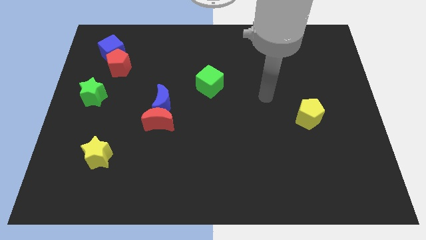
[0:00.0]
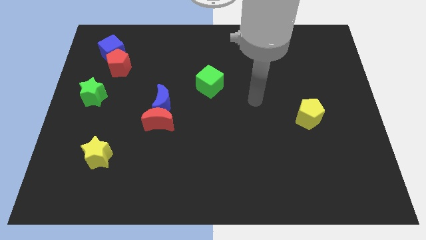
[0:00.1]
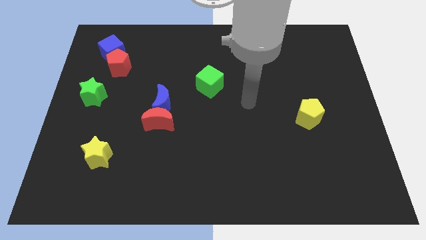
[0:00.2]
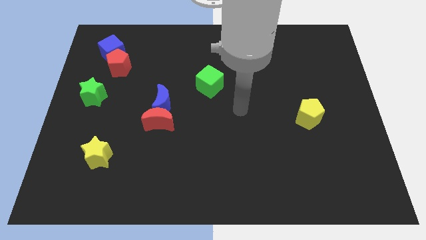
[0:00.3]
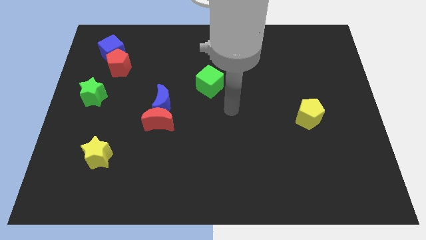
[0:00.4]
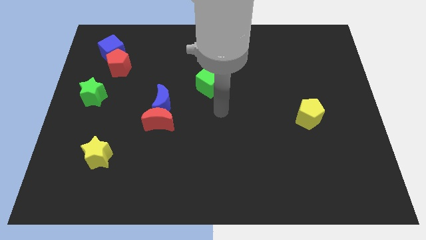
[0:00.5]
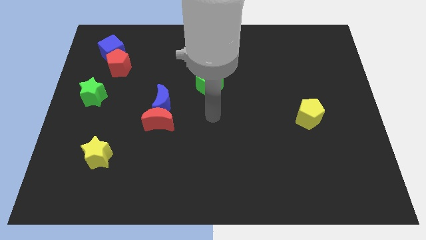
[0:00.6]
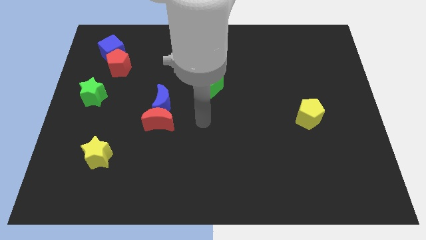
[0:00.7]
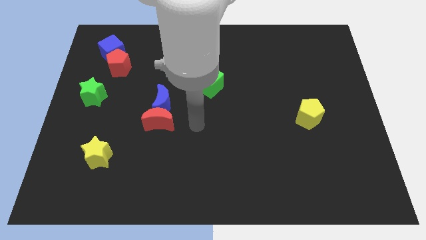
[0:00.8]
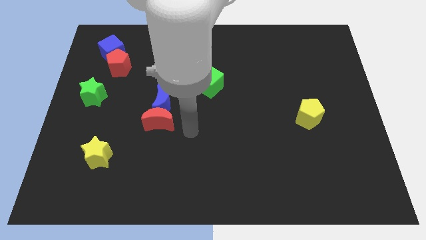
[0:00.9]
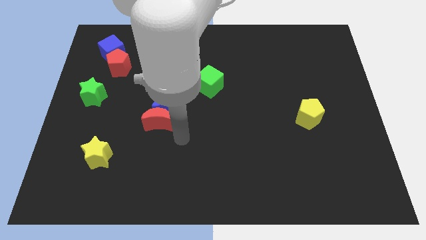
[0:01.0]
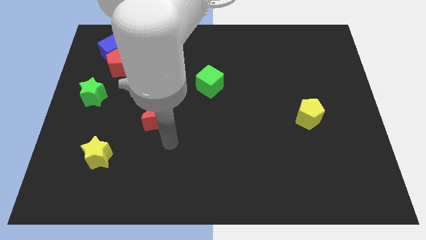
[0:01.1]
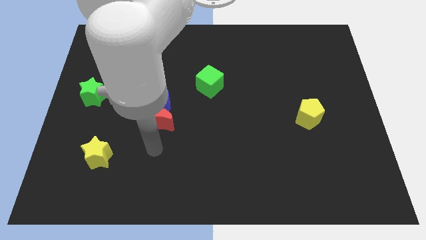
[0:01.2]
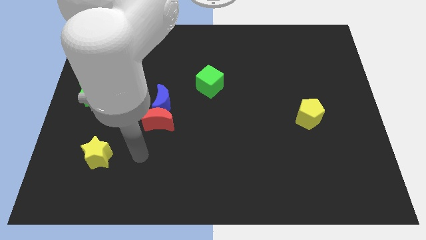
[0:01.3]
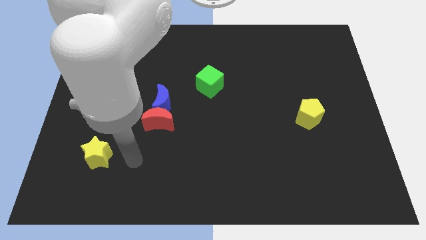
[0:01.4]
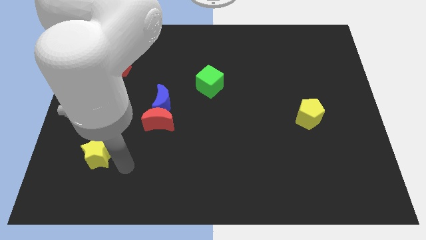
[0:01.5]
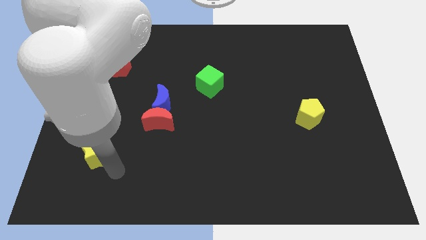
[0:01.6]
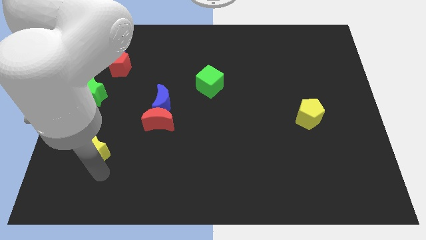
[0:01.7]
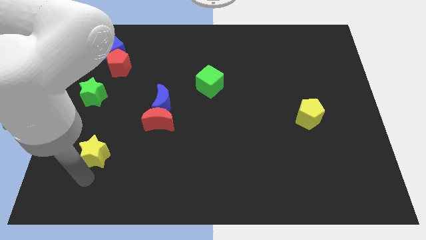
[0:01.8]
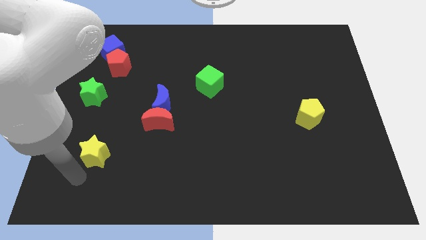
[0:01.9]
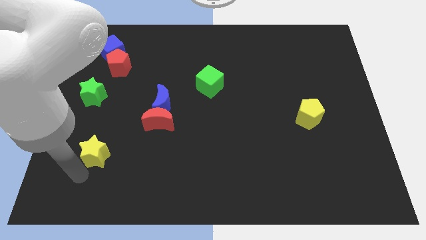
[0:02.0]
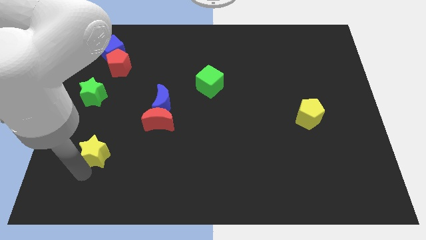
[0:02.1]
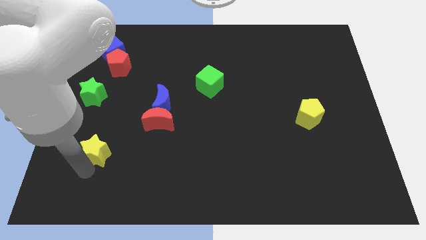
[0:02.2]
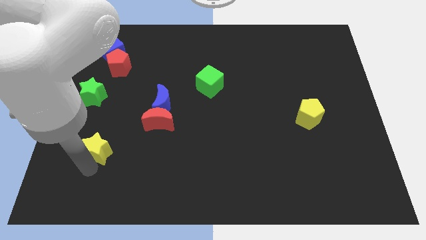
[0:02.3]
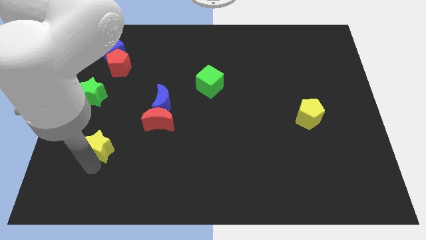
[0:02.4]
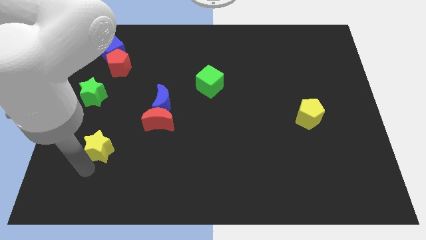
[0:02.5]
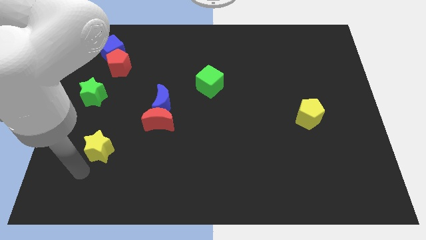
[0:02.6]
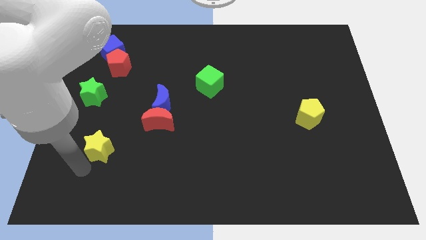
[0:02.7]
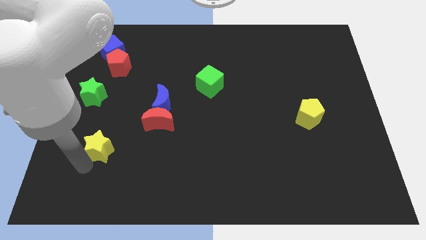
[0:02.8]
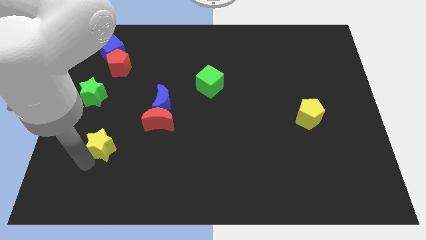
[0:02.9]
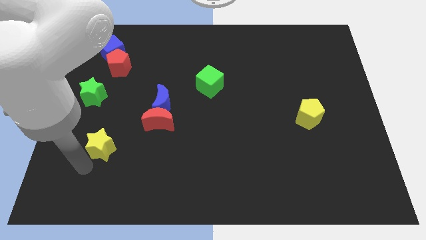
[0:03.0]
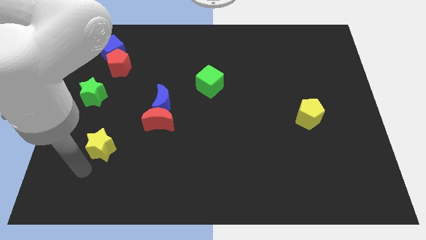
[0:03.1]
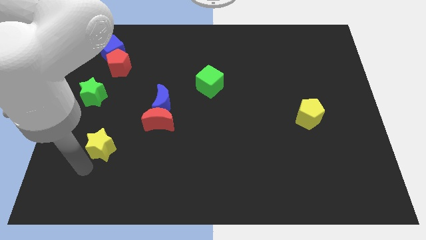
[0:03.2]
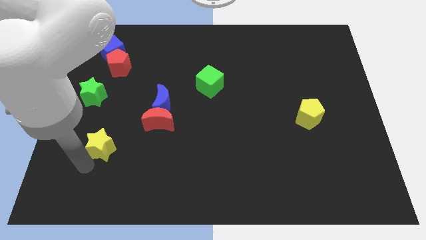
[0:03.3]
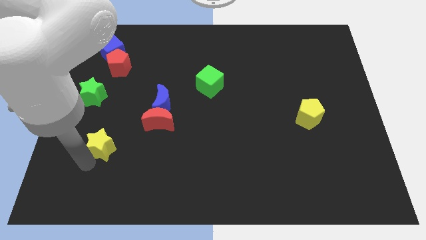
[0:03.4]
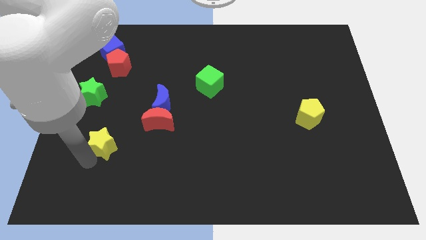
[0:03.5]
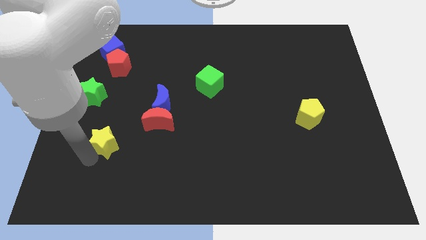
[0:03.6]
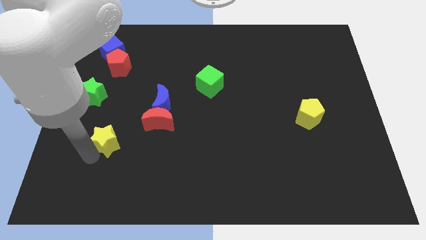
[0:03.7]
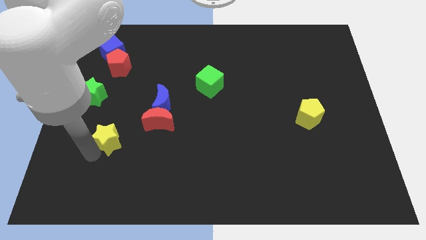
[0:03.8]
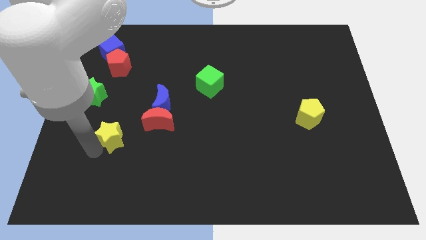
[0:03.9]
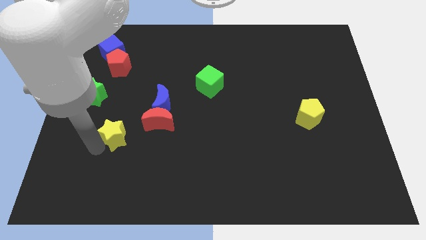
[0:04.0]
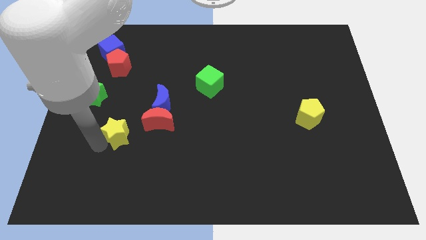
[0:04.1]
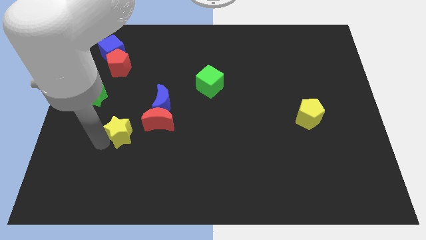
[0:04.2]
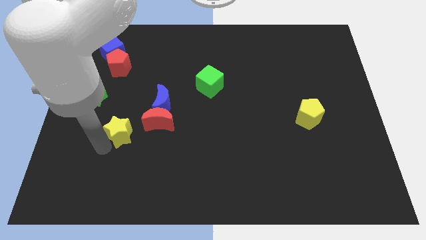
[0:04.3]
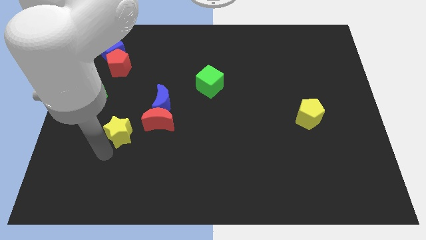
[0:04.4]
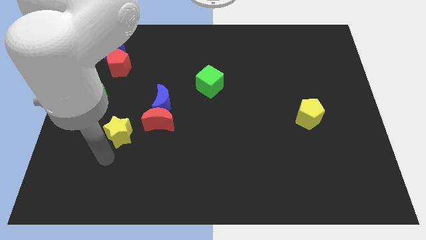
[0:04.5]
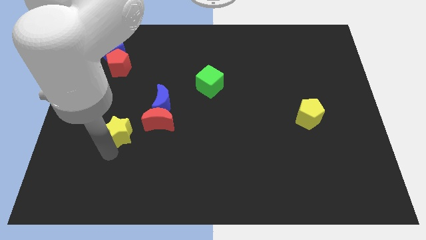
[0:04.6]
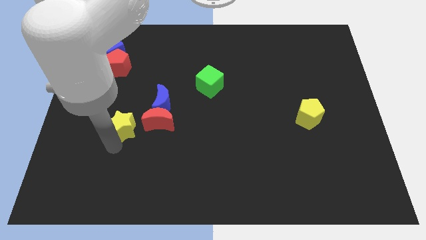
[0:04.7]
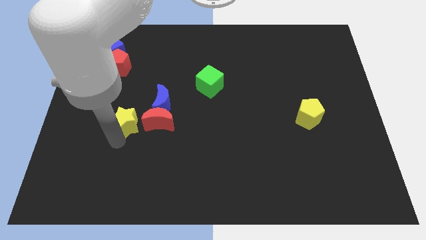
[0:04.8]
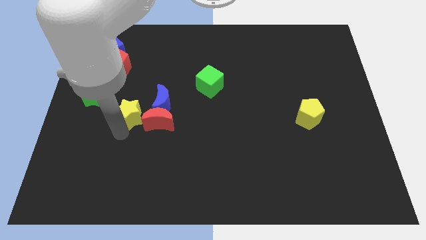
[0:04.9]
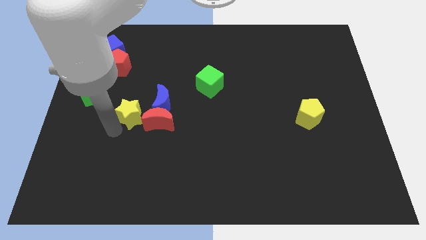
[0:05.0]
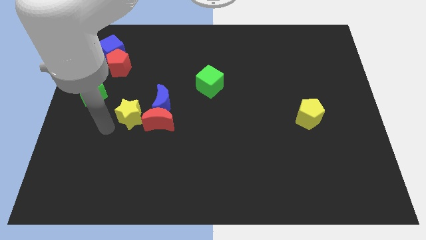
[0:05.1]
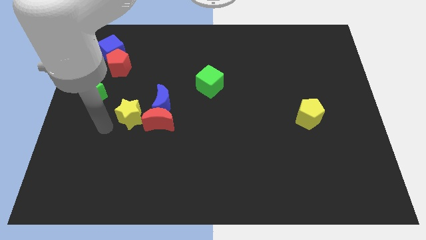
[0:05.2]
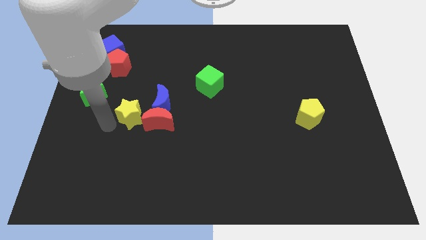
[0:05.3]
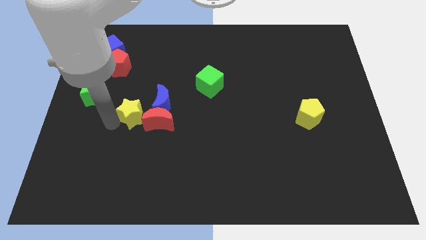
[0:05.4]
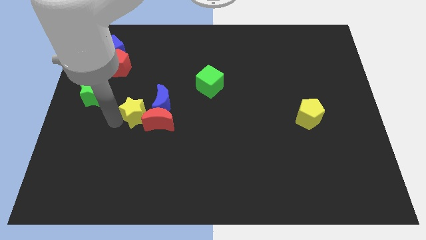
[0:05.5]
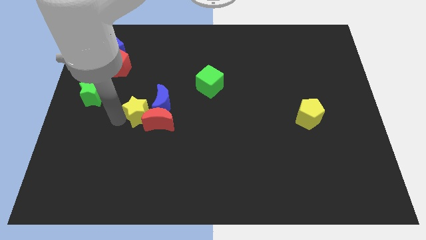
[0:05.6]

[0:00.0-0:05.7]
put the yellow star next to the blue moon

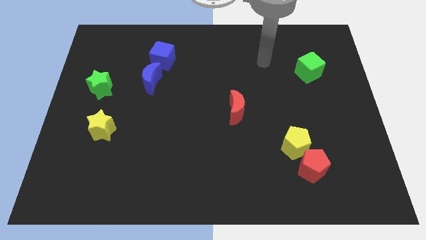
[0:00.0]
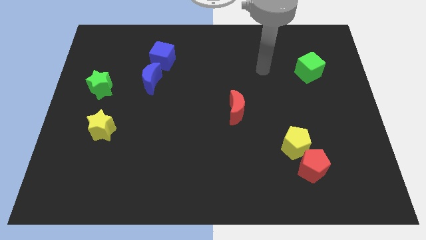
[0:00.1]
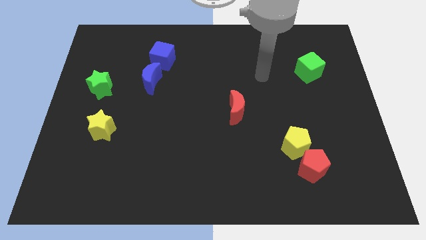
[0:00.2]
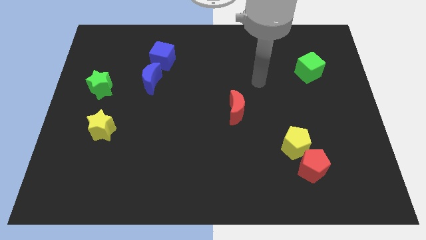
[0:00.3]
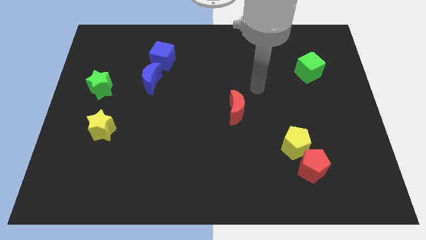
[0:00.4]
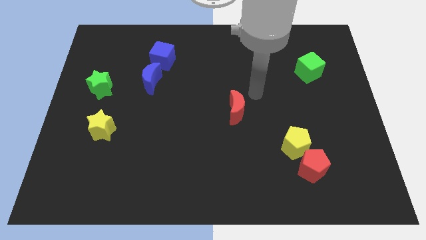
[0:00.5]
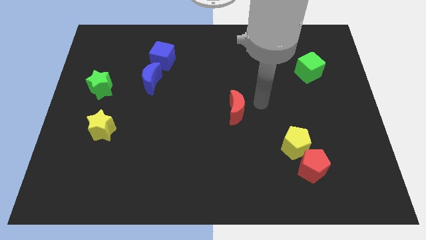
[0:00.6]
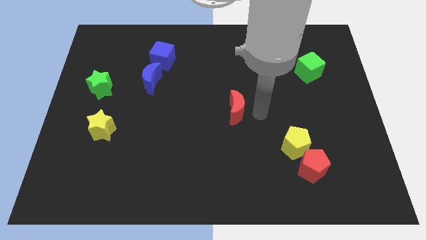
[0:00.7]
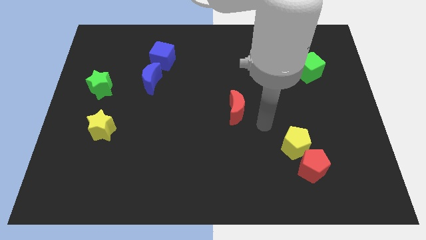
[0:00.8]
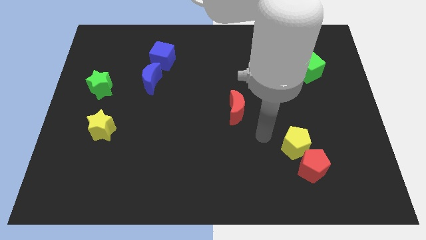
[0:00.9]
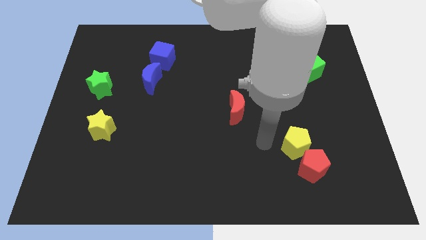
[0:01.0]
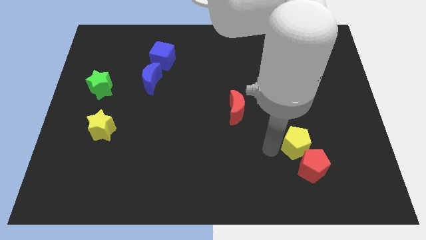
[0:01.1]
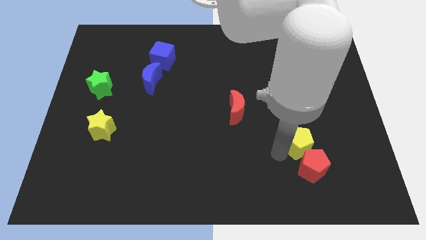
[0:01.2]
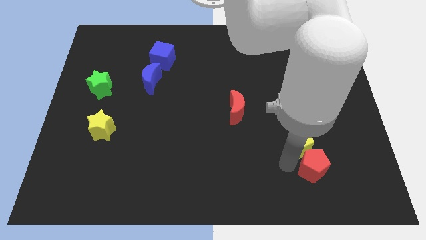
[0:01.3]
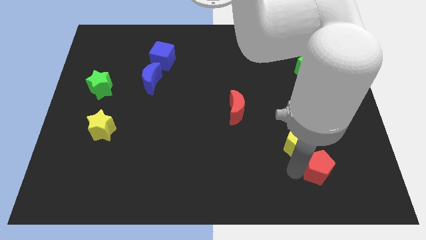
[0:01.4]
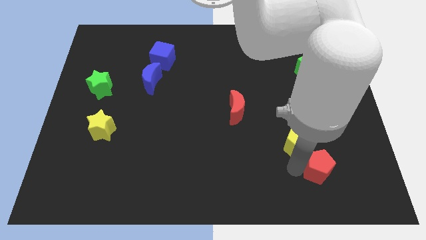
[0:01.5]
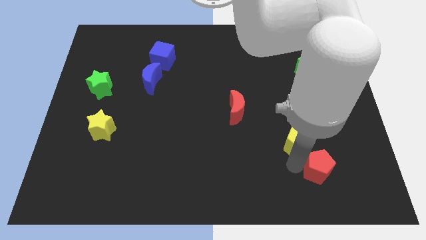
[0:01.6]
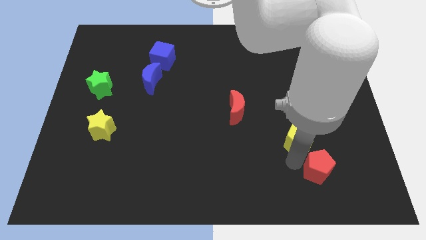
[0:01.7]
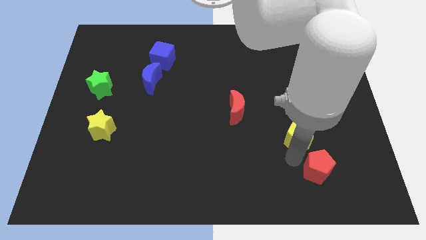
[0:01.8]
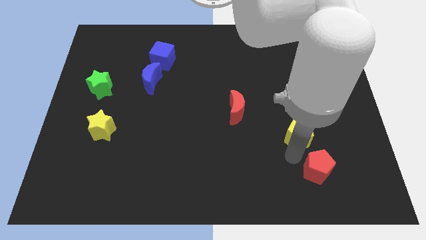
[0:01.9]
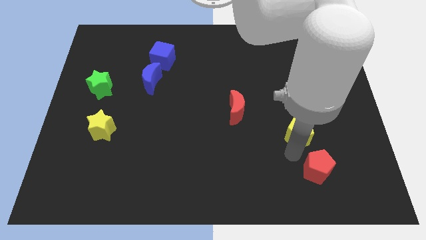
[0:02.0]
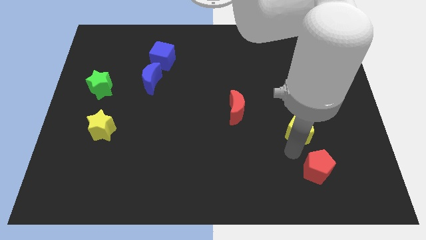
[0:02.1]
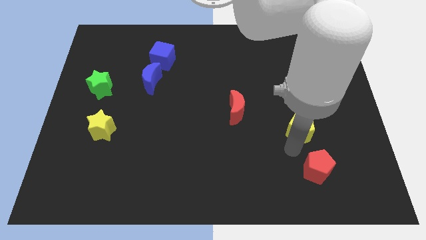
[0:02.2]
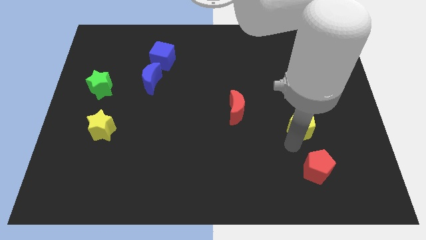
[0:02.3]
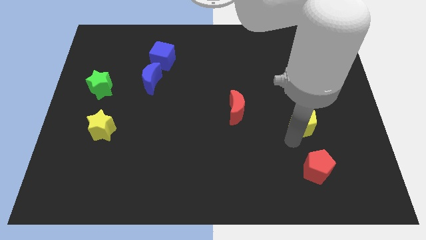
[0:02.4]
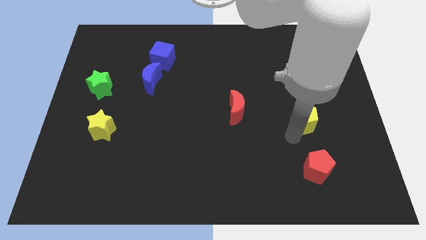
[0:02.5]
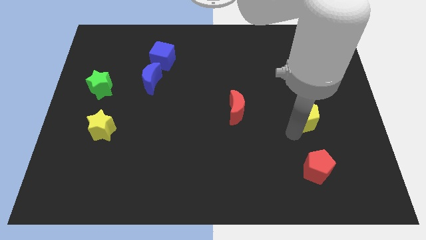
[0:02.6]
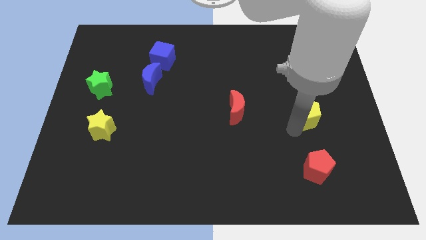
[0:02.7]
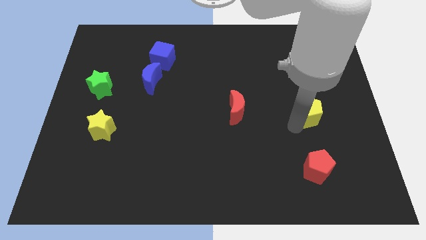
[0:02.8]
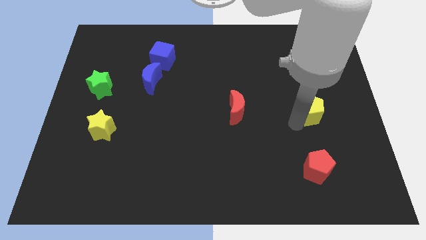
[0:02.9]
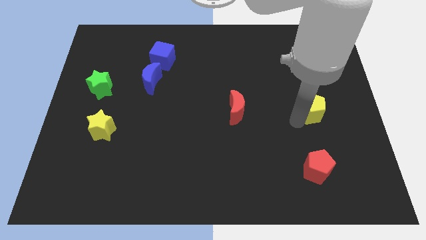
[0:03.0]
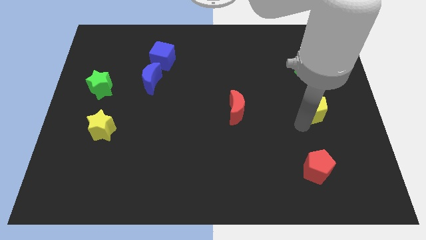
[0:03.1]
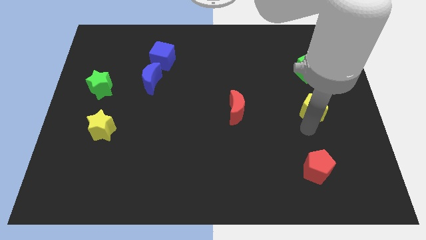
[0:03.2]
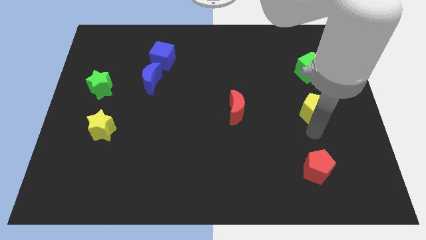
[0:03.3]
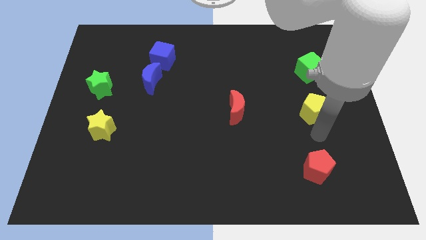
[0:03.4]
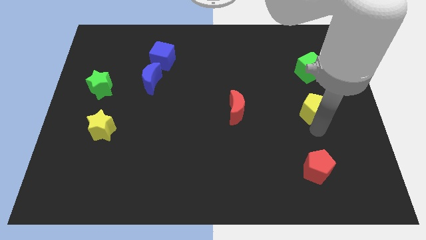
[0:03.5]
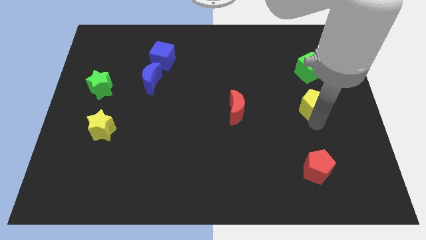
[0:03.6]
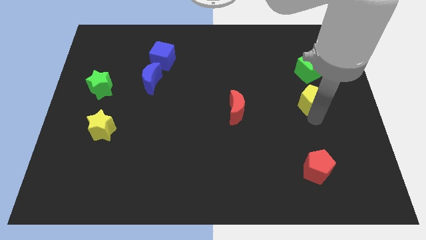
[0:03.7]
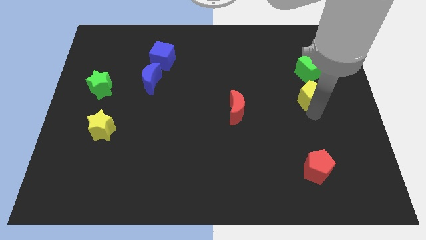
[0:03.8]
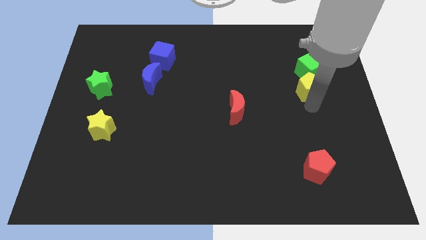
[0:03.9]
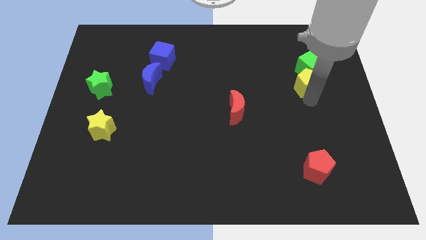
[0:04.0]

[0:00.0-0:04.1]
put the yellow pentagon towards the green cube
